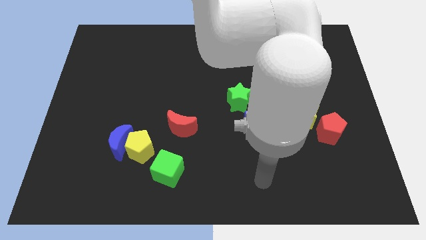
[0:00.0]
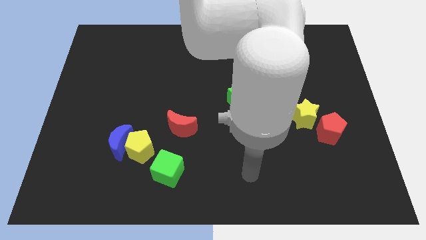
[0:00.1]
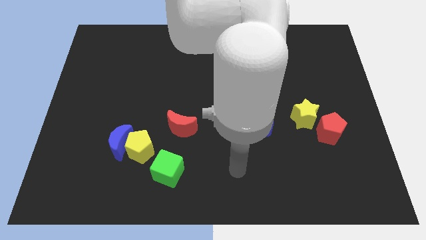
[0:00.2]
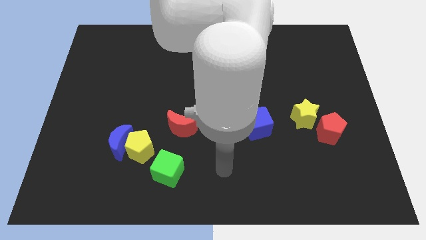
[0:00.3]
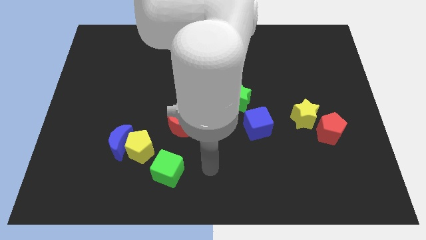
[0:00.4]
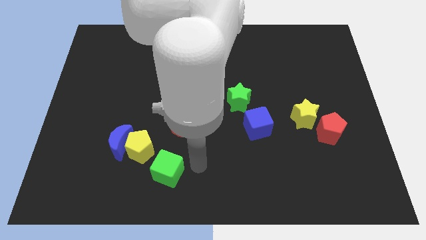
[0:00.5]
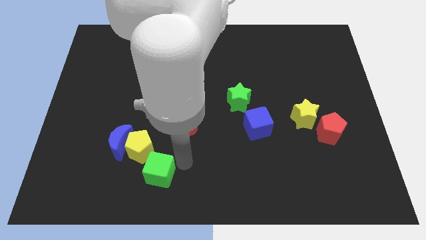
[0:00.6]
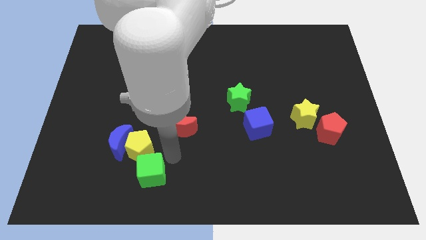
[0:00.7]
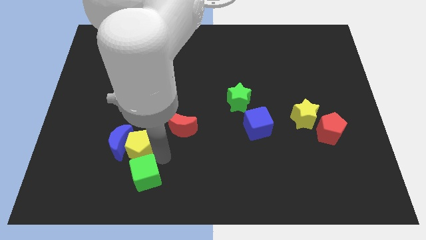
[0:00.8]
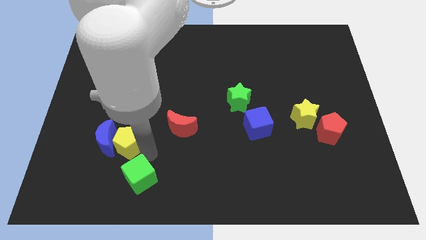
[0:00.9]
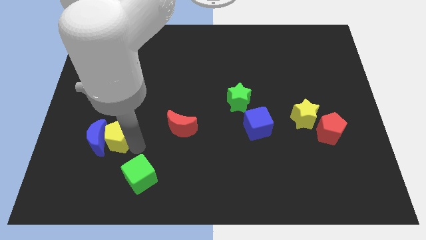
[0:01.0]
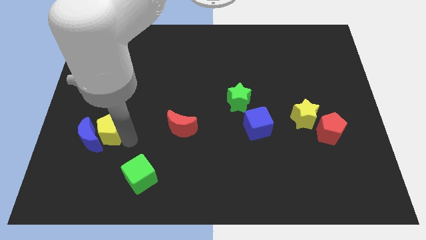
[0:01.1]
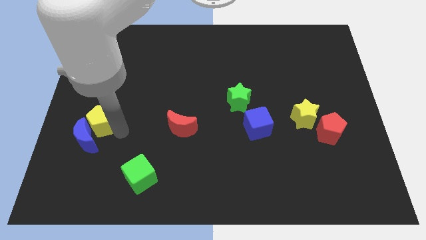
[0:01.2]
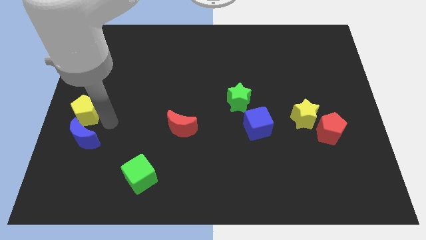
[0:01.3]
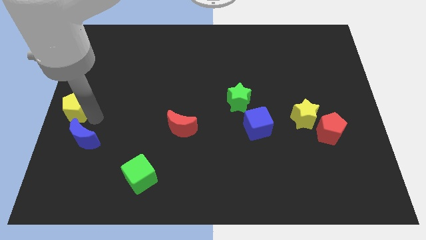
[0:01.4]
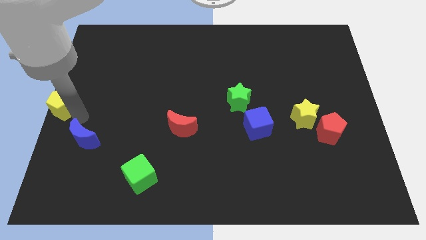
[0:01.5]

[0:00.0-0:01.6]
separate the blue moon from the yellow pentagon

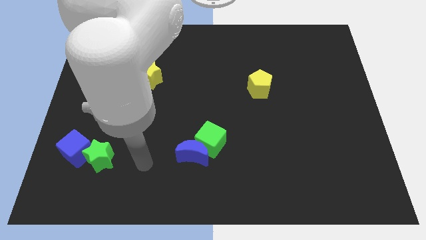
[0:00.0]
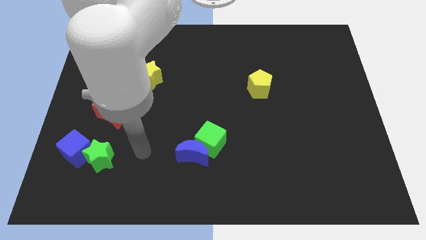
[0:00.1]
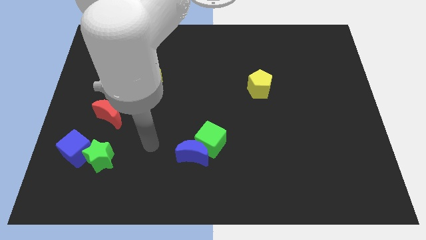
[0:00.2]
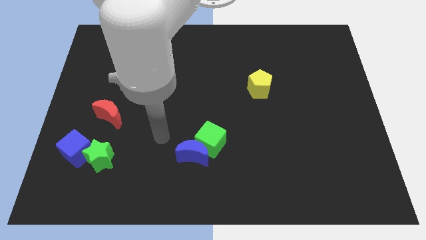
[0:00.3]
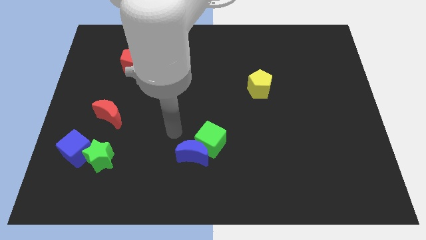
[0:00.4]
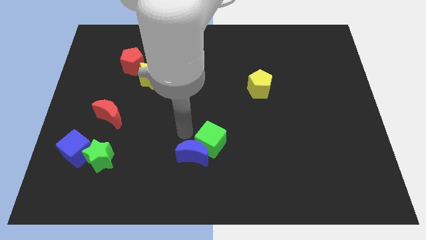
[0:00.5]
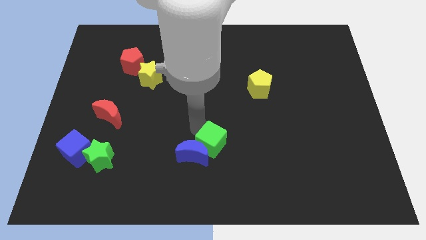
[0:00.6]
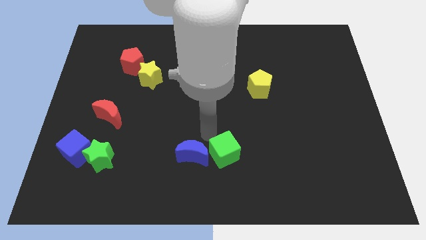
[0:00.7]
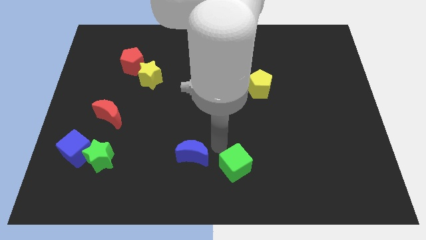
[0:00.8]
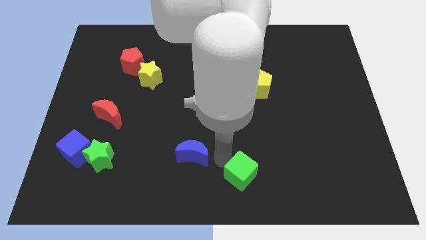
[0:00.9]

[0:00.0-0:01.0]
move the blue moon away from the green cube

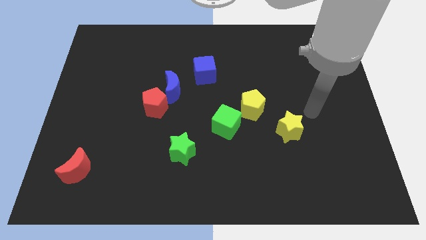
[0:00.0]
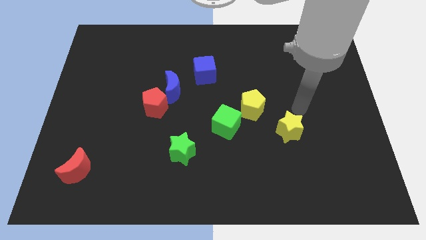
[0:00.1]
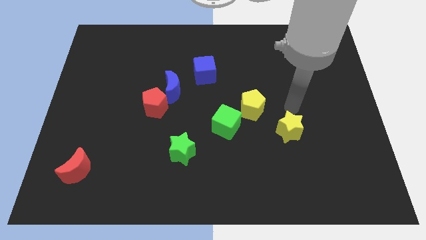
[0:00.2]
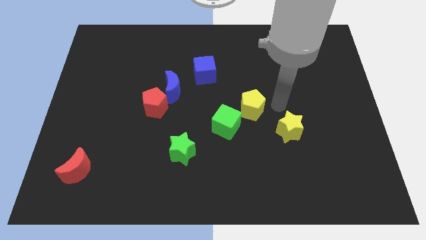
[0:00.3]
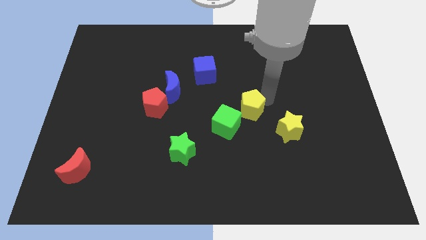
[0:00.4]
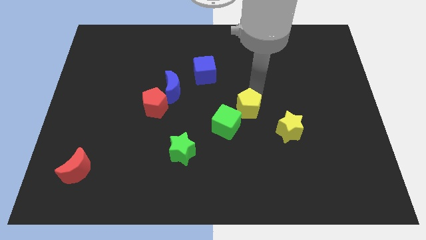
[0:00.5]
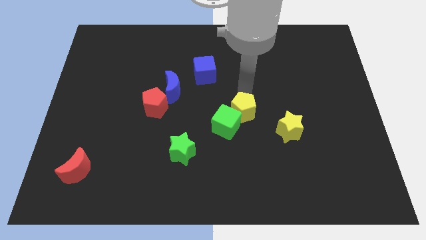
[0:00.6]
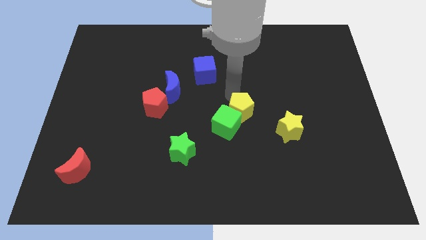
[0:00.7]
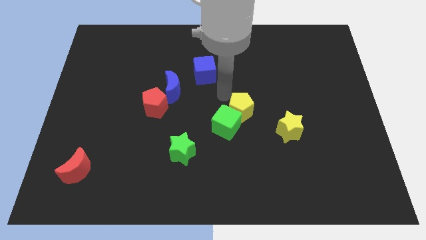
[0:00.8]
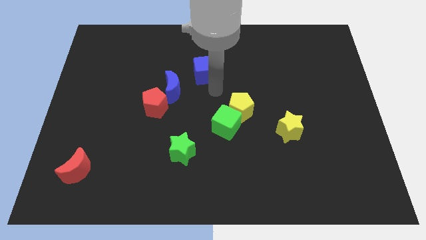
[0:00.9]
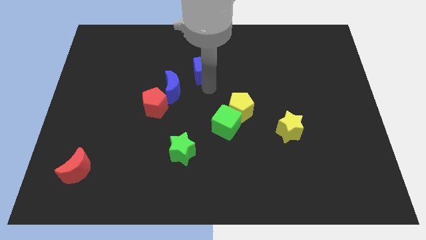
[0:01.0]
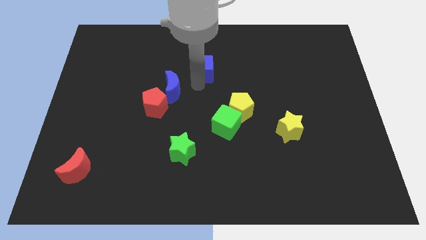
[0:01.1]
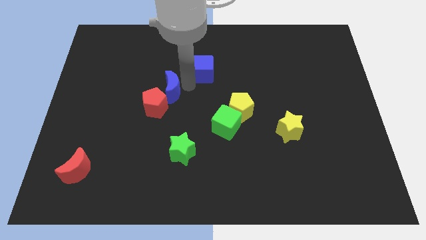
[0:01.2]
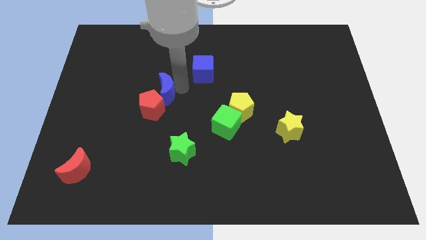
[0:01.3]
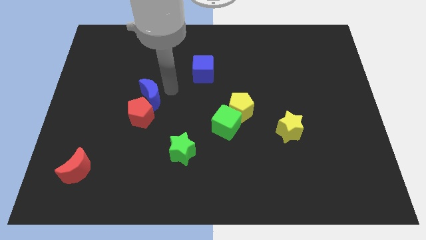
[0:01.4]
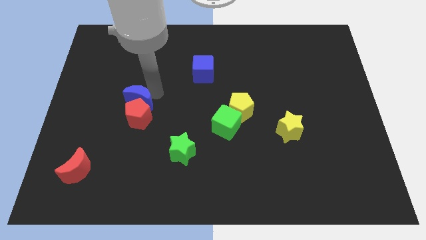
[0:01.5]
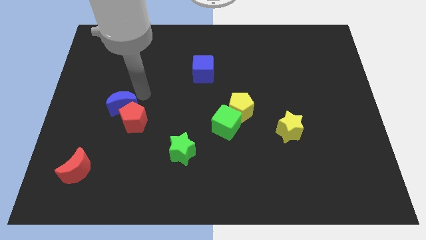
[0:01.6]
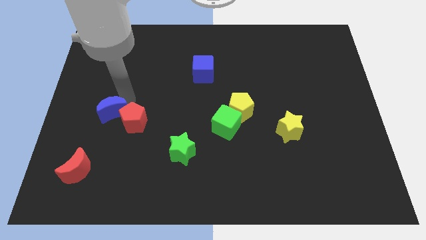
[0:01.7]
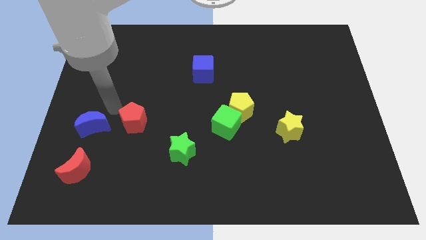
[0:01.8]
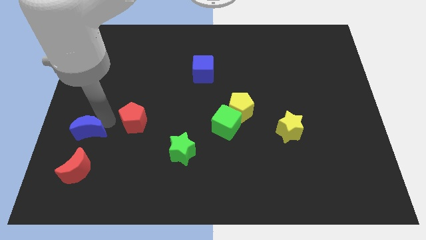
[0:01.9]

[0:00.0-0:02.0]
pull the red pentagon apart from the blue moon

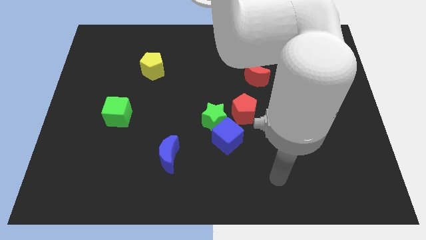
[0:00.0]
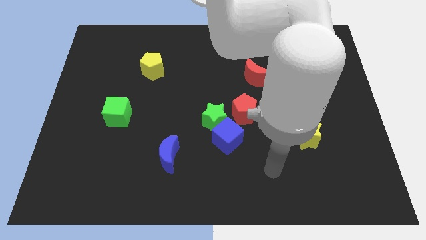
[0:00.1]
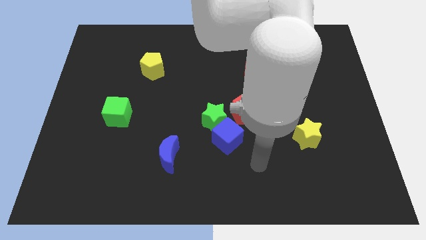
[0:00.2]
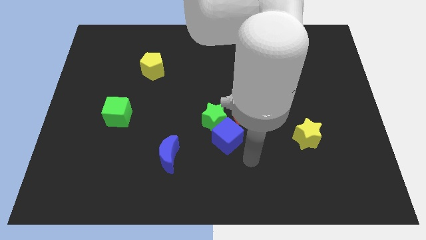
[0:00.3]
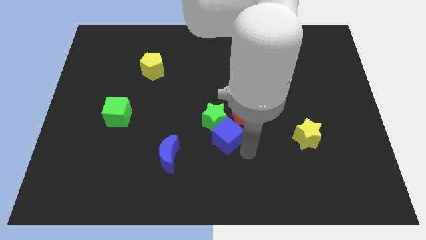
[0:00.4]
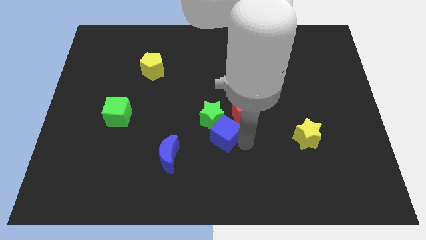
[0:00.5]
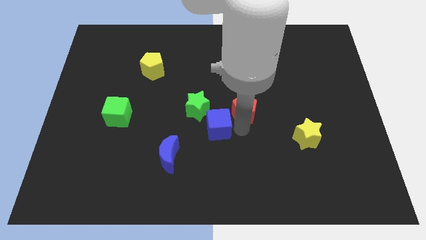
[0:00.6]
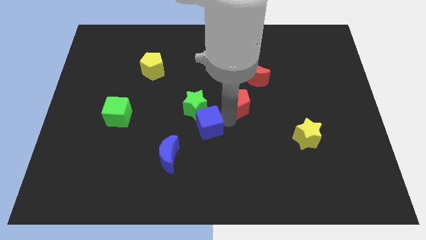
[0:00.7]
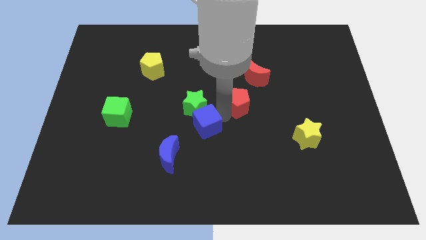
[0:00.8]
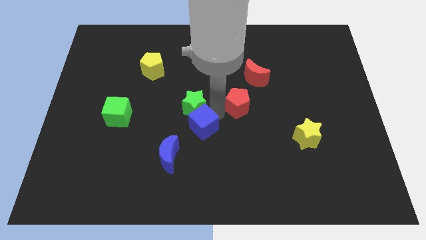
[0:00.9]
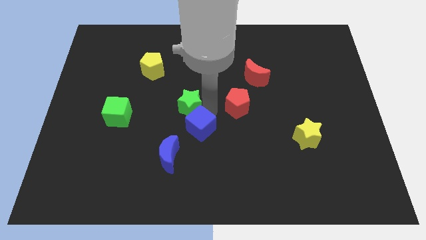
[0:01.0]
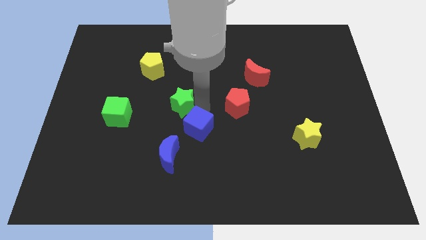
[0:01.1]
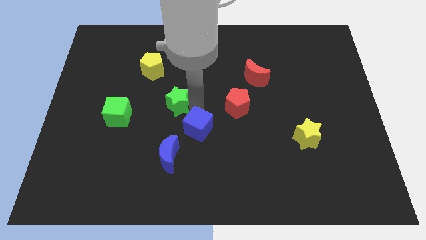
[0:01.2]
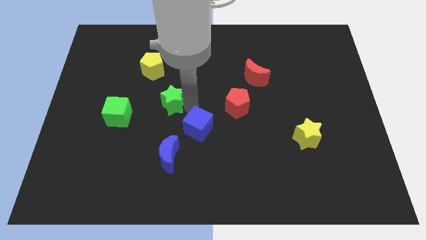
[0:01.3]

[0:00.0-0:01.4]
pull the green star apart from the blue cube and red pentagon

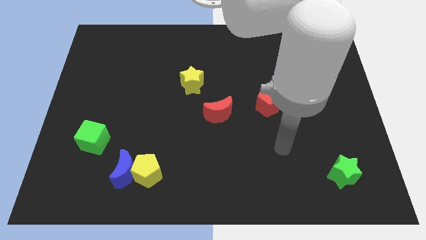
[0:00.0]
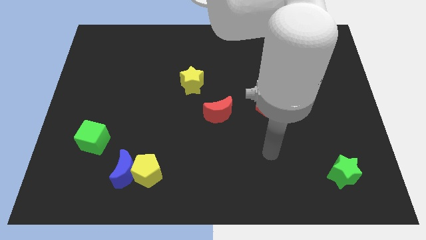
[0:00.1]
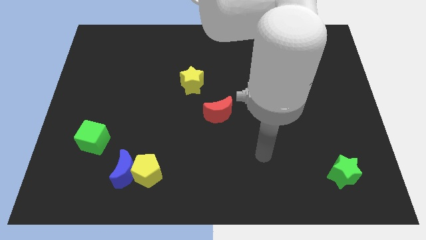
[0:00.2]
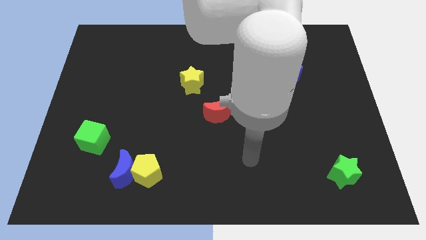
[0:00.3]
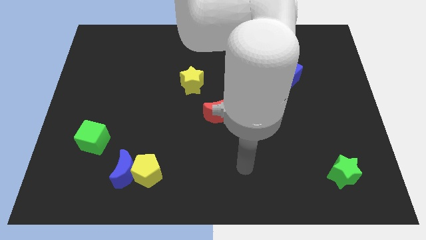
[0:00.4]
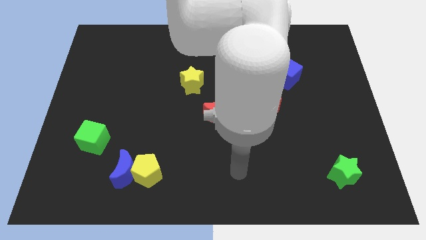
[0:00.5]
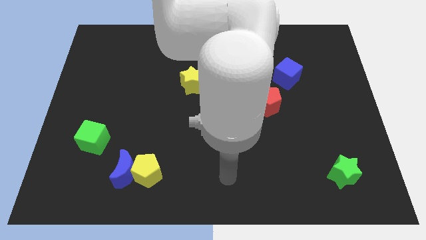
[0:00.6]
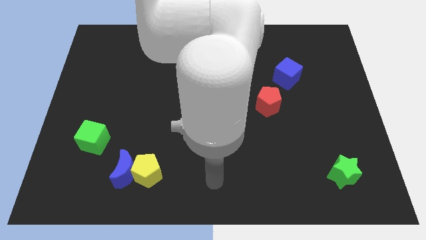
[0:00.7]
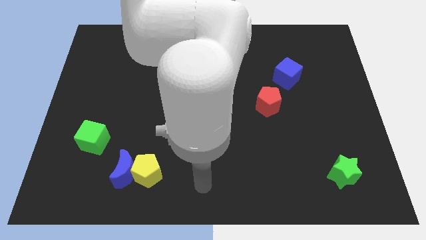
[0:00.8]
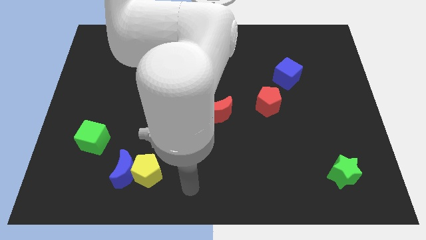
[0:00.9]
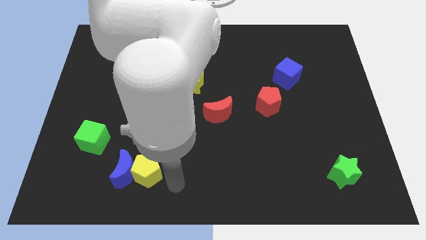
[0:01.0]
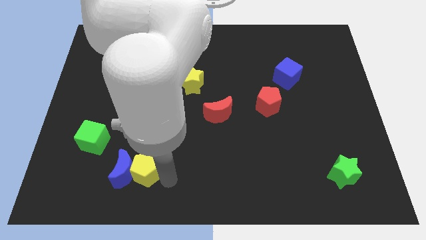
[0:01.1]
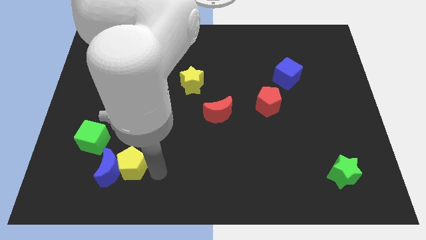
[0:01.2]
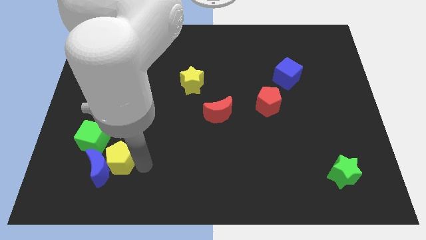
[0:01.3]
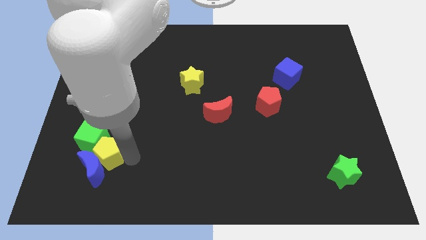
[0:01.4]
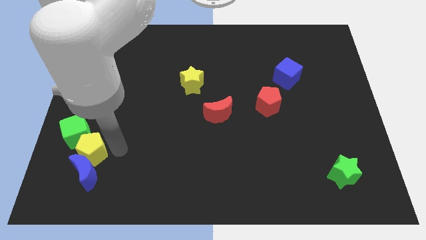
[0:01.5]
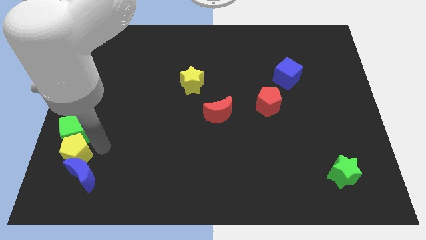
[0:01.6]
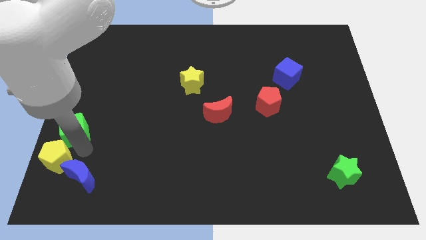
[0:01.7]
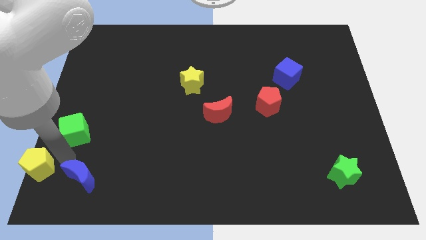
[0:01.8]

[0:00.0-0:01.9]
move the blue moon away from the yellow pentagon

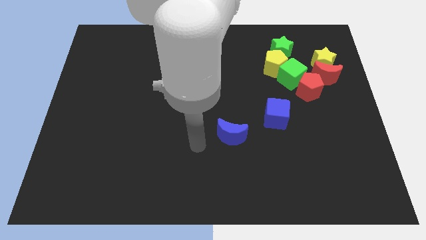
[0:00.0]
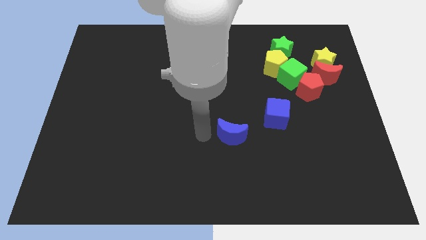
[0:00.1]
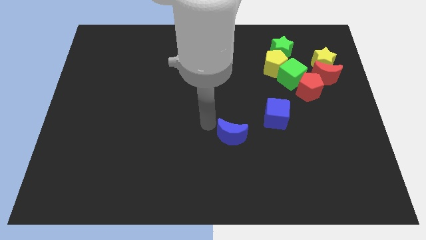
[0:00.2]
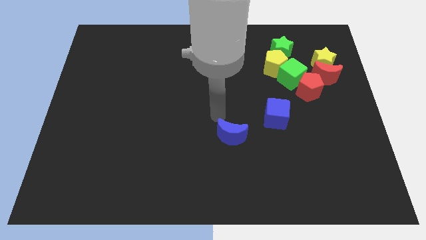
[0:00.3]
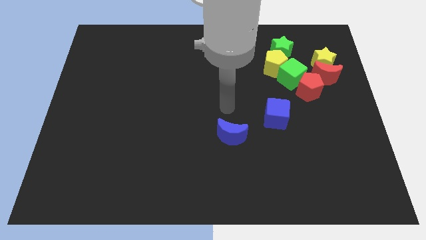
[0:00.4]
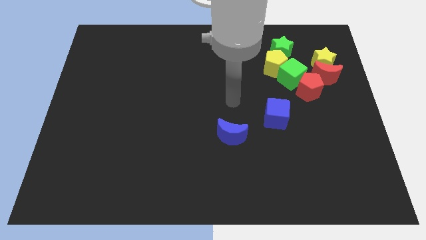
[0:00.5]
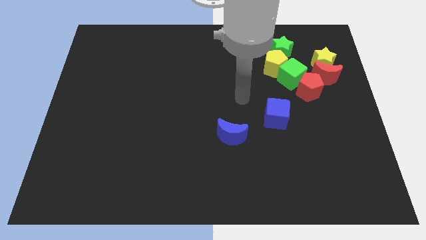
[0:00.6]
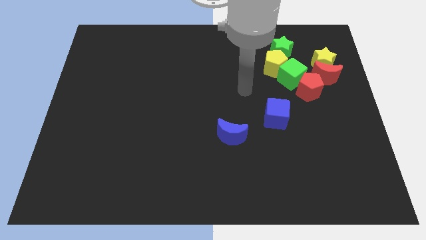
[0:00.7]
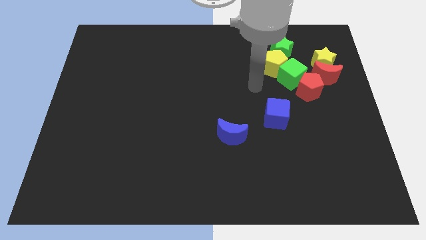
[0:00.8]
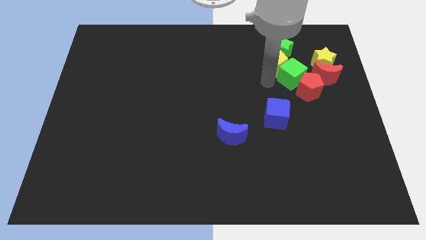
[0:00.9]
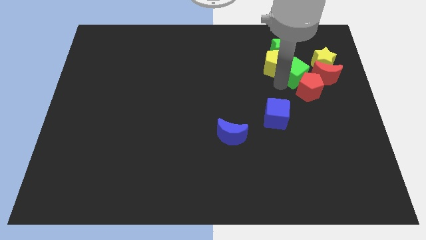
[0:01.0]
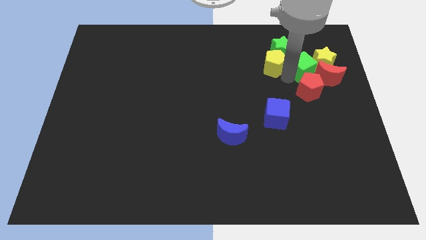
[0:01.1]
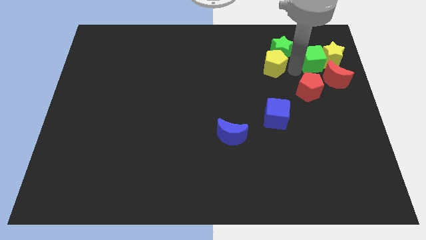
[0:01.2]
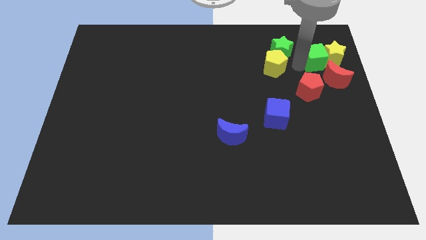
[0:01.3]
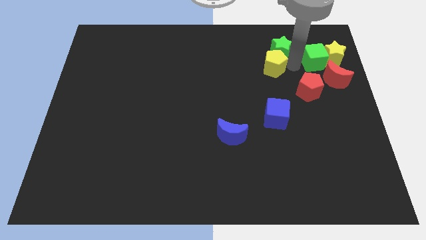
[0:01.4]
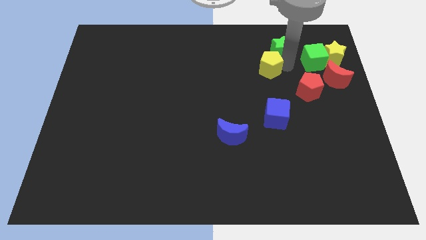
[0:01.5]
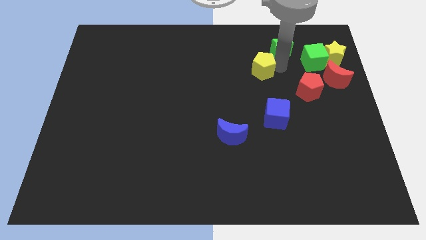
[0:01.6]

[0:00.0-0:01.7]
separate the yellow pentagon from the green star and green cube
